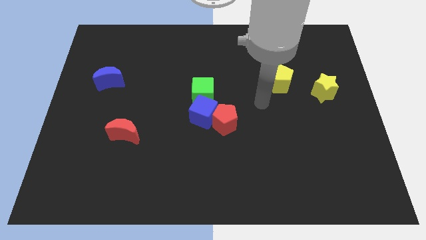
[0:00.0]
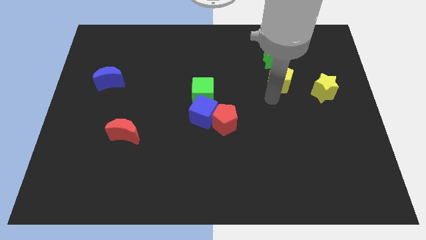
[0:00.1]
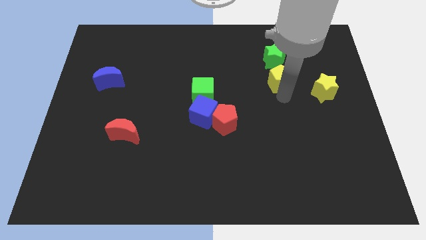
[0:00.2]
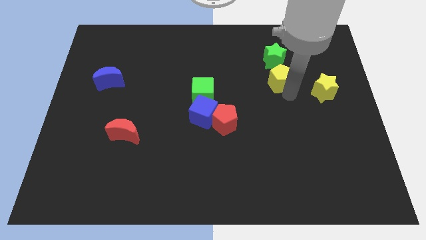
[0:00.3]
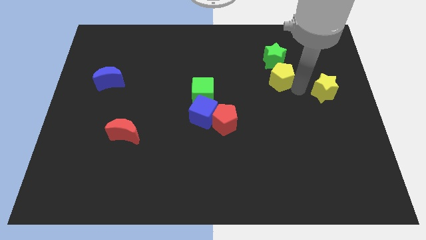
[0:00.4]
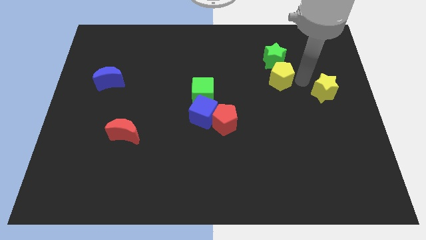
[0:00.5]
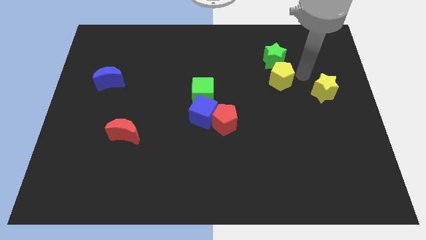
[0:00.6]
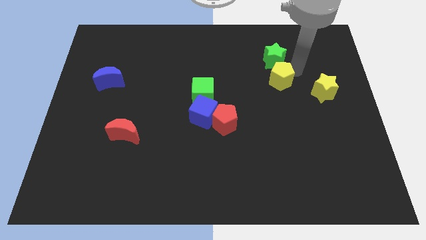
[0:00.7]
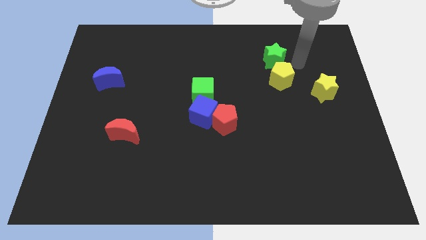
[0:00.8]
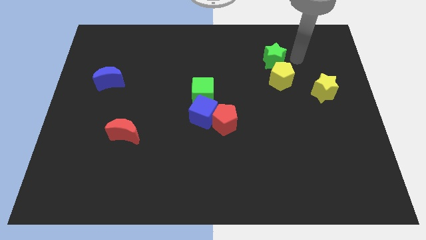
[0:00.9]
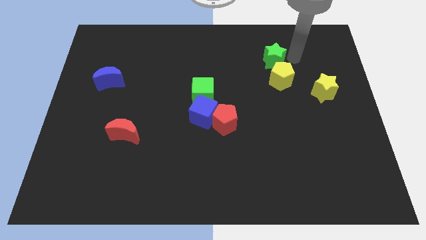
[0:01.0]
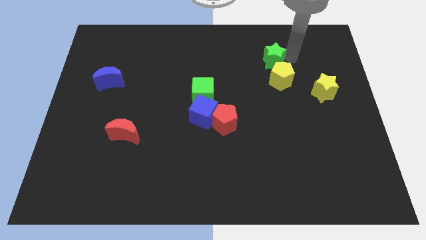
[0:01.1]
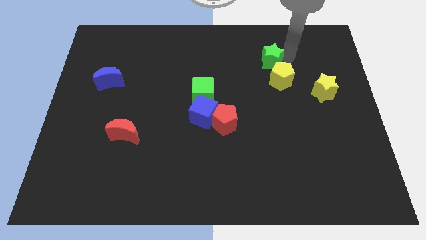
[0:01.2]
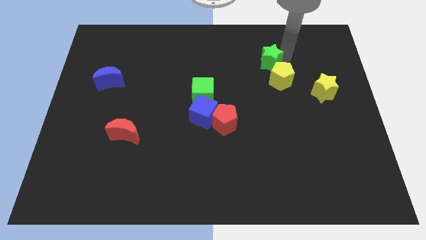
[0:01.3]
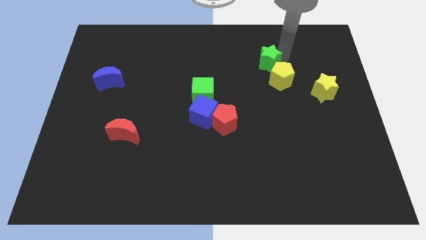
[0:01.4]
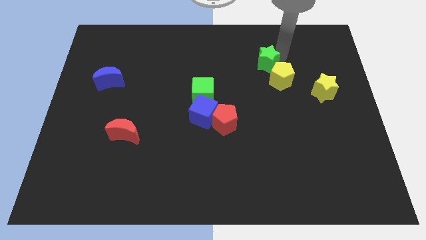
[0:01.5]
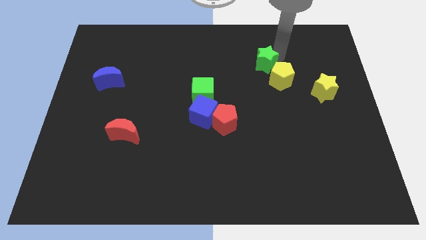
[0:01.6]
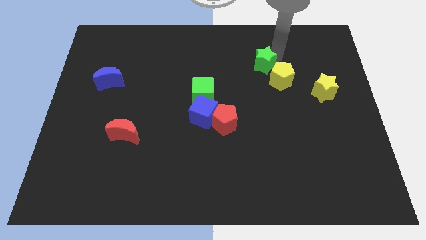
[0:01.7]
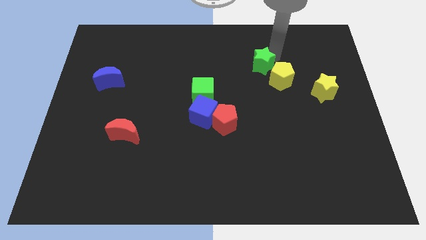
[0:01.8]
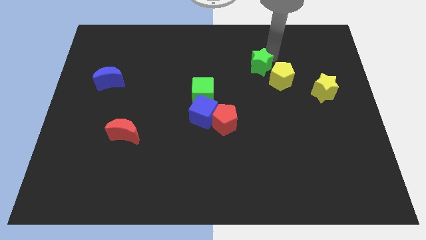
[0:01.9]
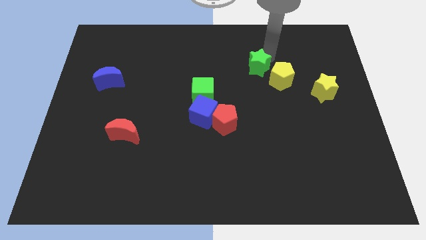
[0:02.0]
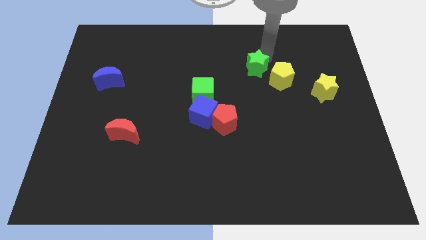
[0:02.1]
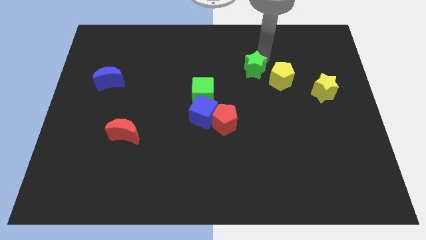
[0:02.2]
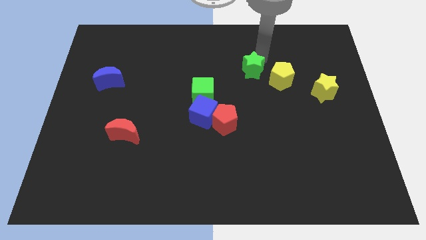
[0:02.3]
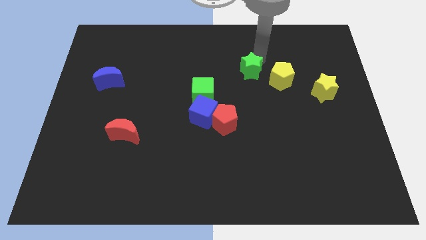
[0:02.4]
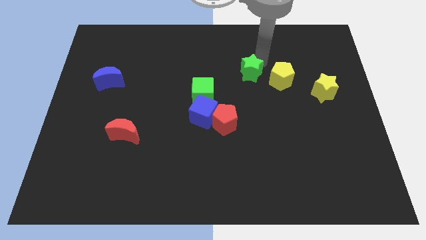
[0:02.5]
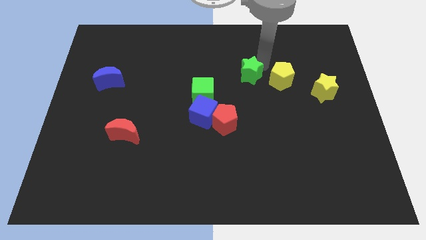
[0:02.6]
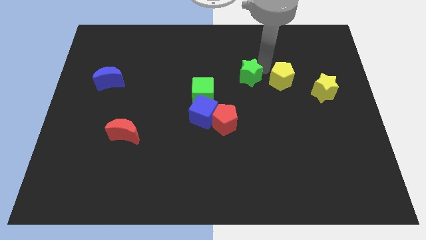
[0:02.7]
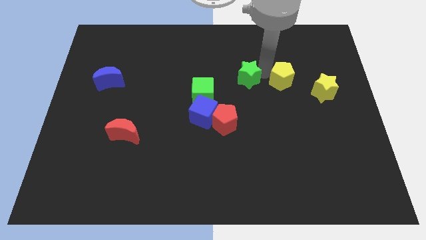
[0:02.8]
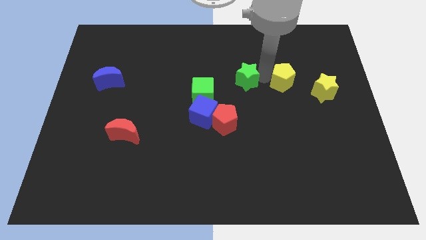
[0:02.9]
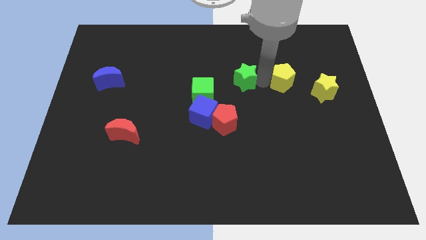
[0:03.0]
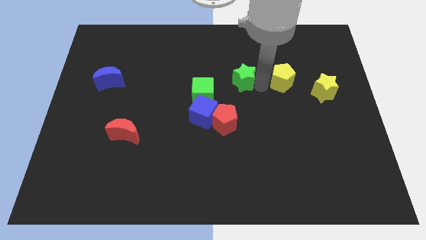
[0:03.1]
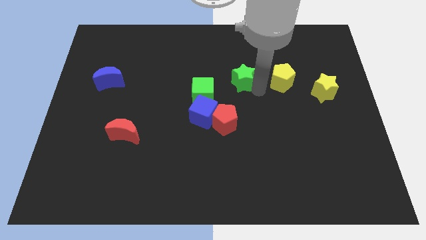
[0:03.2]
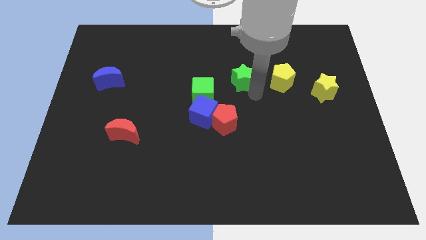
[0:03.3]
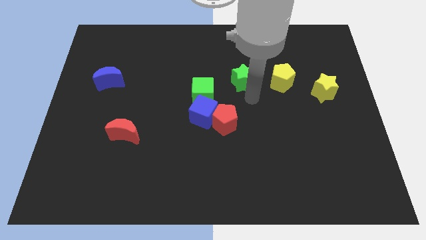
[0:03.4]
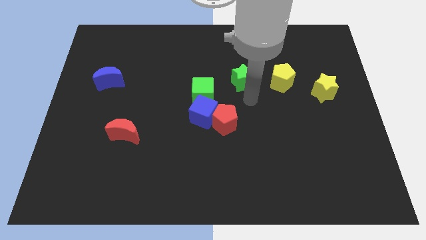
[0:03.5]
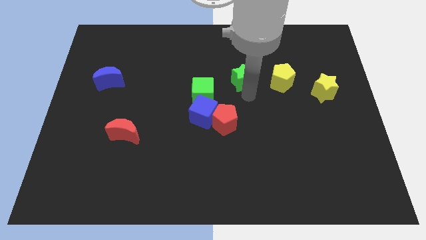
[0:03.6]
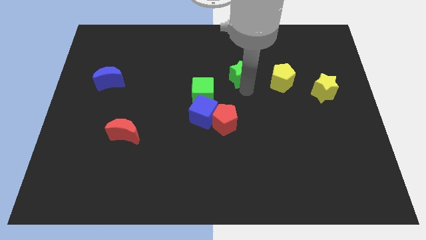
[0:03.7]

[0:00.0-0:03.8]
slide the green star somewhat left

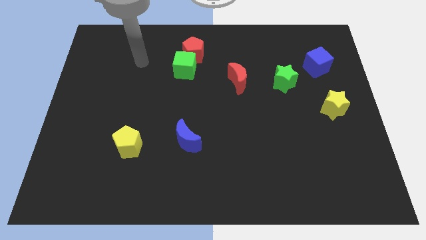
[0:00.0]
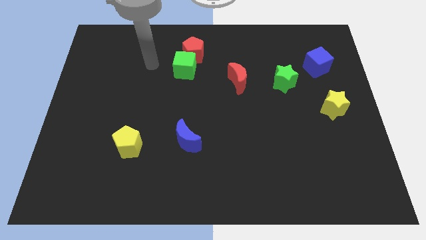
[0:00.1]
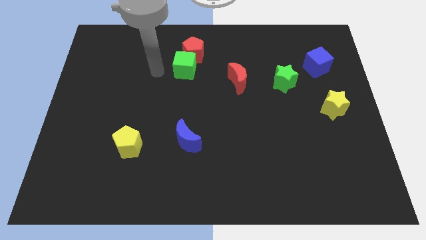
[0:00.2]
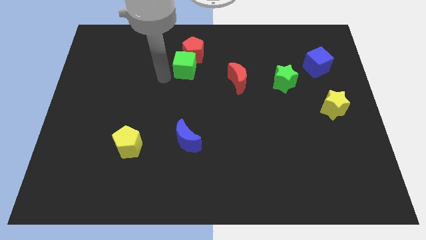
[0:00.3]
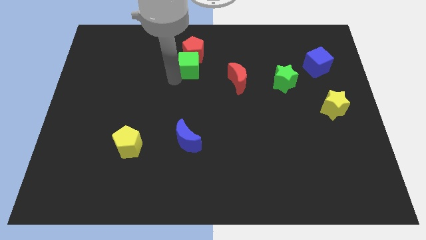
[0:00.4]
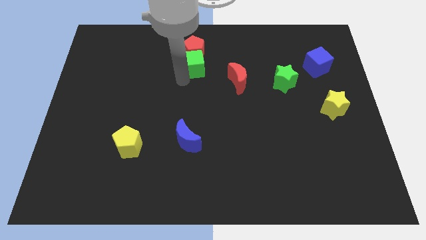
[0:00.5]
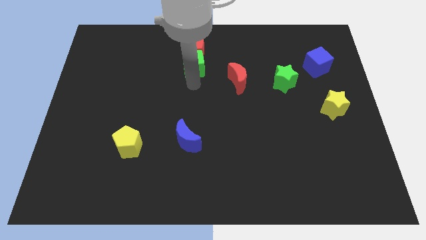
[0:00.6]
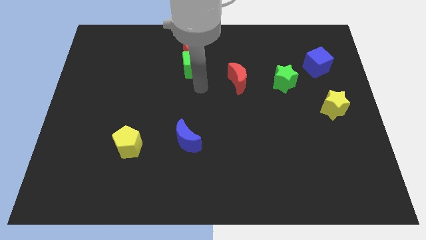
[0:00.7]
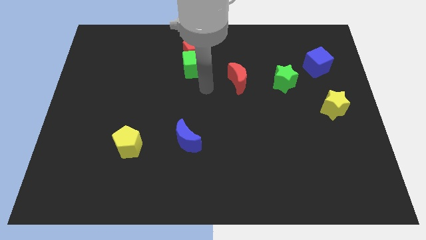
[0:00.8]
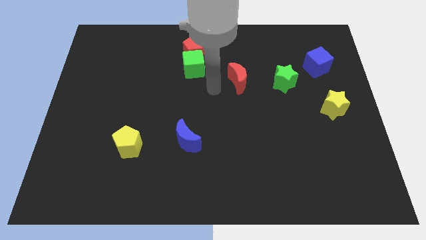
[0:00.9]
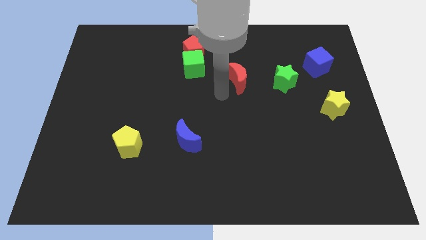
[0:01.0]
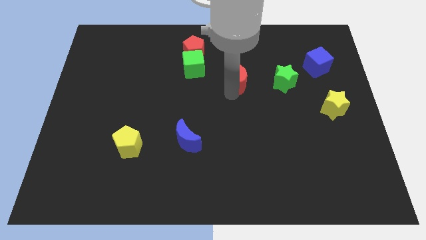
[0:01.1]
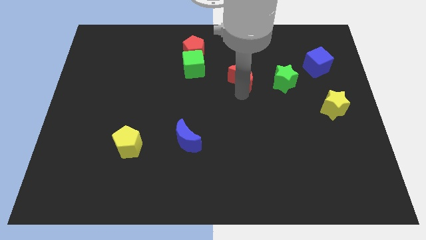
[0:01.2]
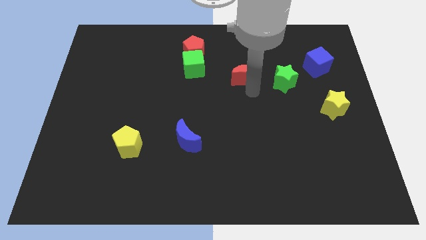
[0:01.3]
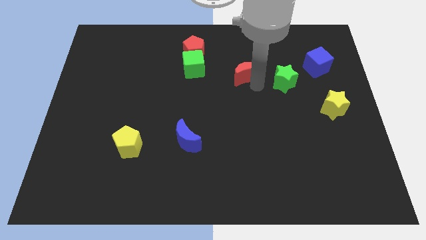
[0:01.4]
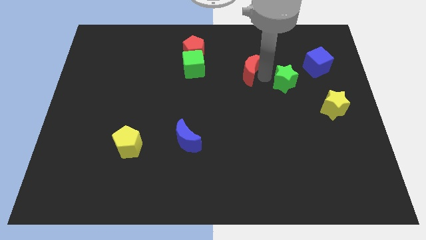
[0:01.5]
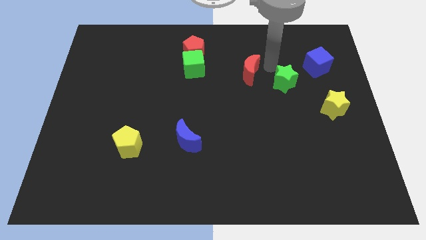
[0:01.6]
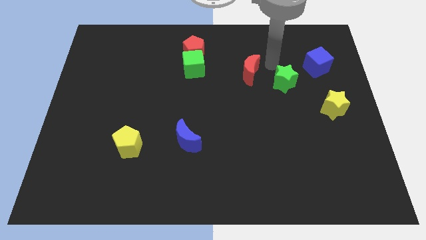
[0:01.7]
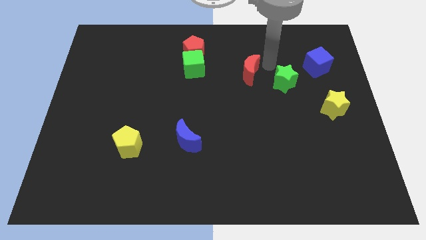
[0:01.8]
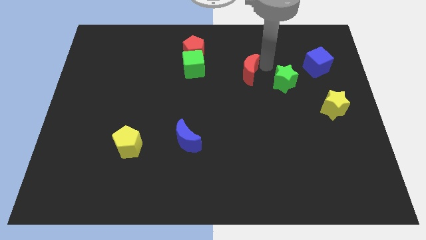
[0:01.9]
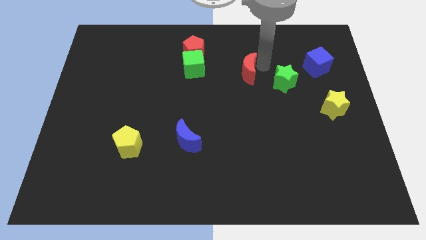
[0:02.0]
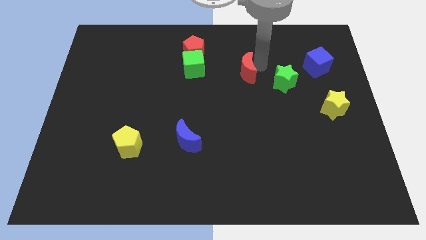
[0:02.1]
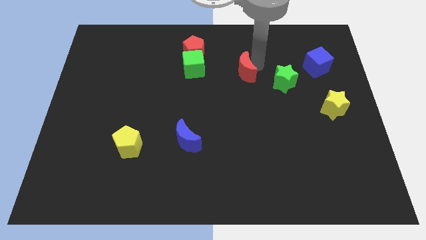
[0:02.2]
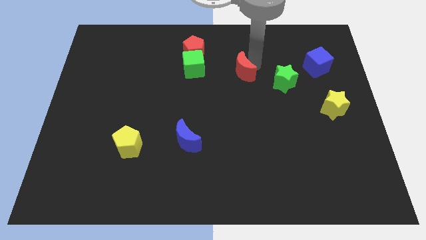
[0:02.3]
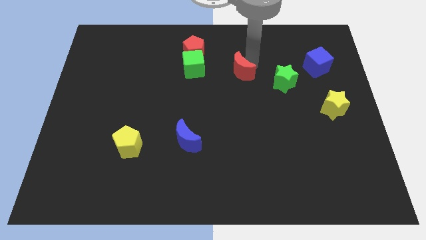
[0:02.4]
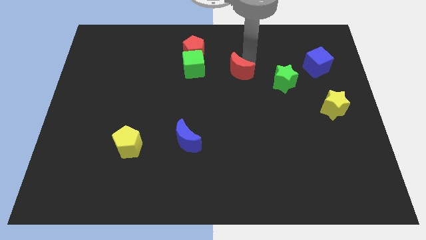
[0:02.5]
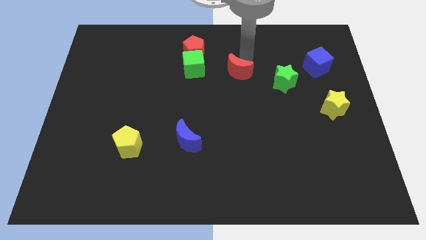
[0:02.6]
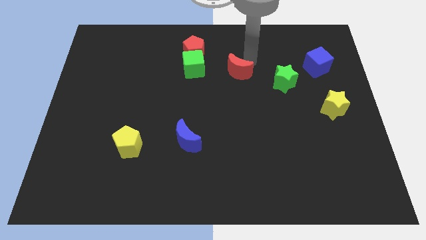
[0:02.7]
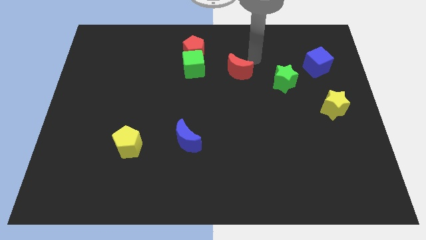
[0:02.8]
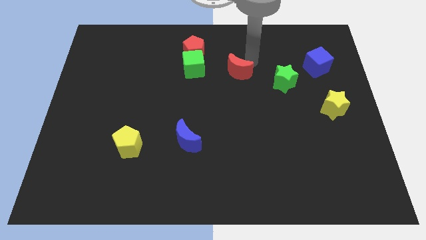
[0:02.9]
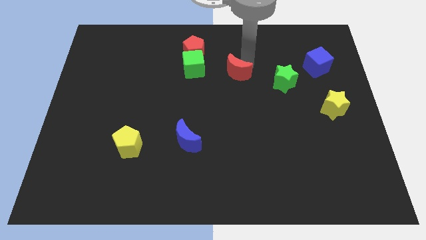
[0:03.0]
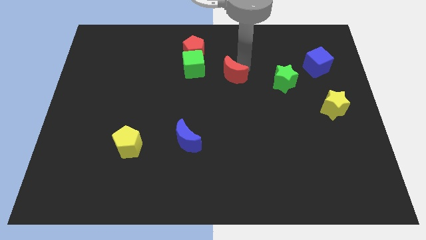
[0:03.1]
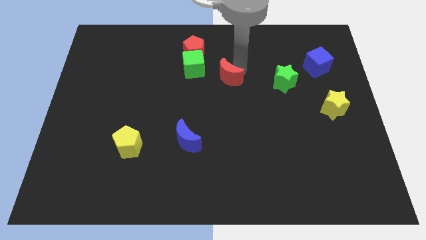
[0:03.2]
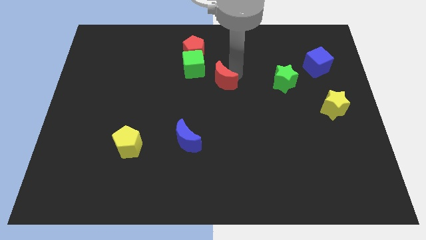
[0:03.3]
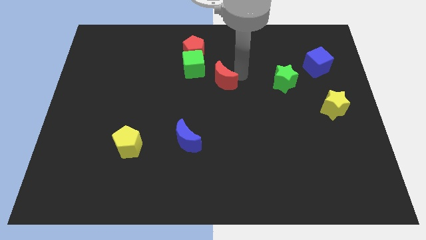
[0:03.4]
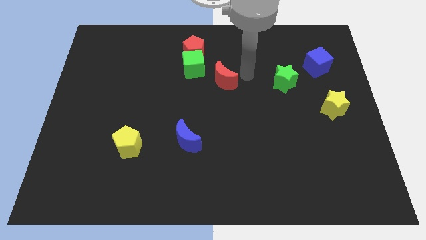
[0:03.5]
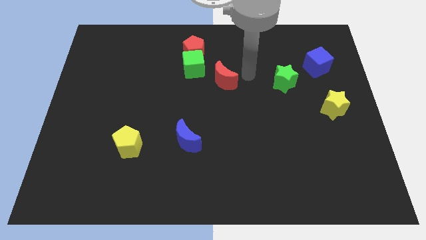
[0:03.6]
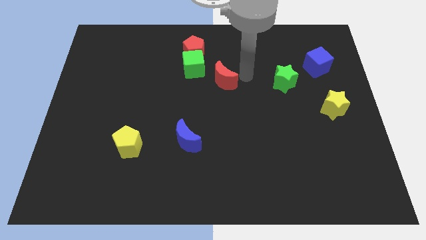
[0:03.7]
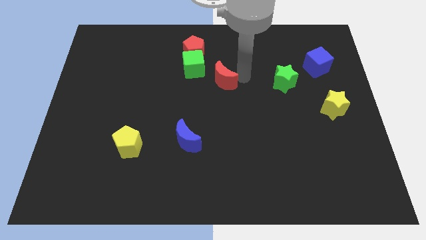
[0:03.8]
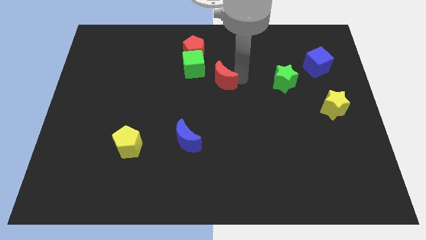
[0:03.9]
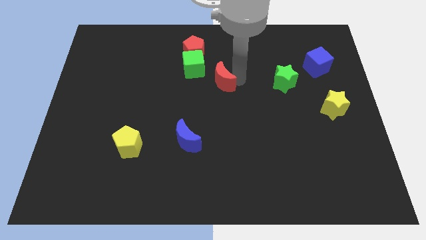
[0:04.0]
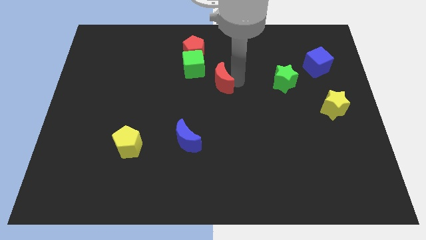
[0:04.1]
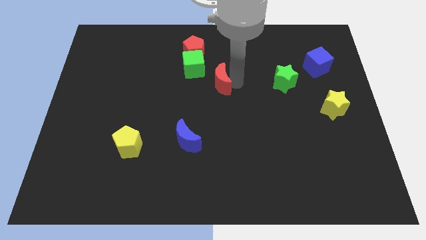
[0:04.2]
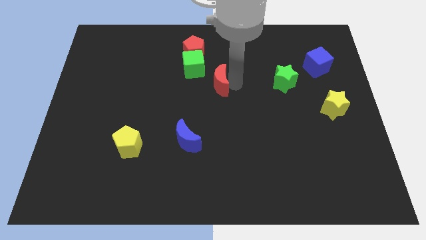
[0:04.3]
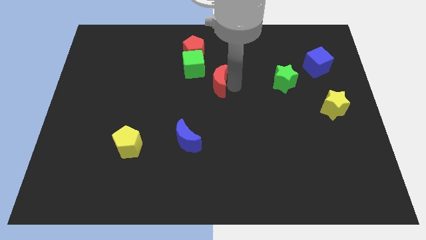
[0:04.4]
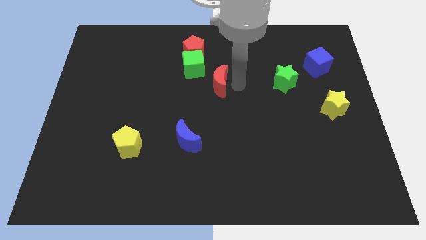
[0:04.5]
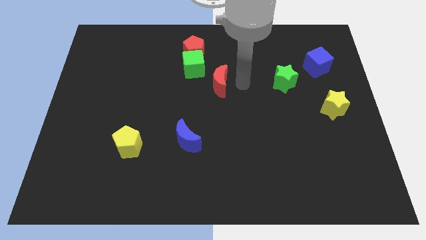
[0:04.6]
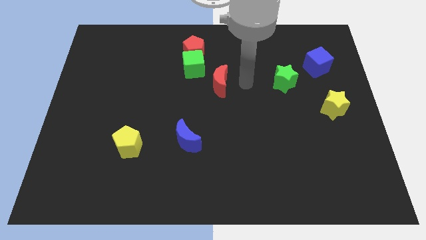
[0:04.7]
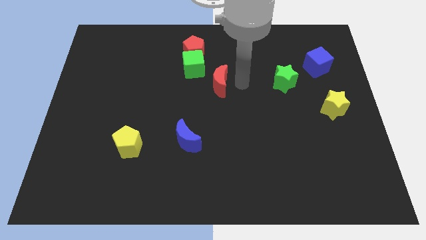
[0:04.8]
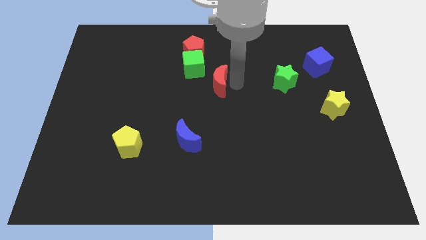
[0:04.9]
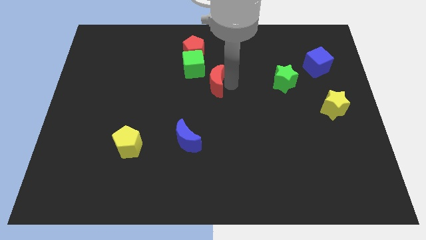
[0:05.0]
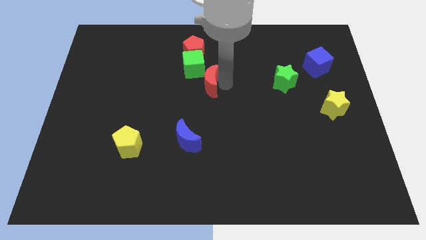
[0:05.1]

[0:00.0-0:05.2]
slide the red moon a little bit left
